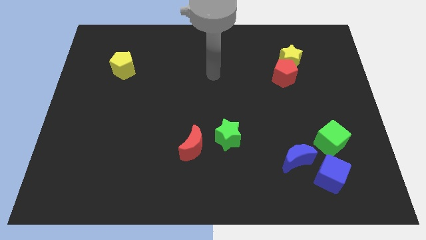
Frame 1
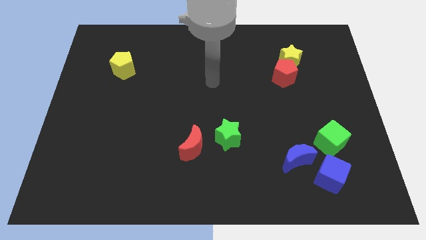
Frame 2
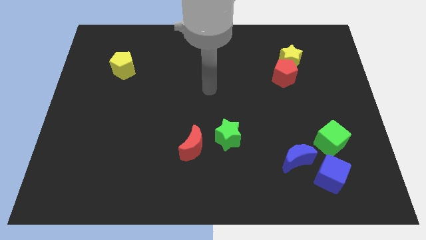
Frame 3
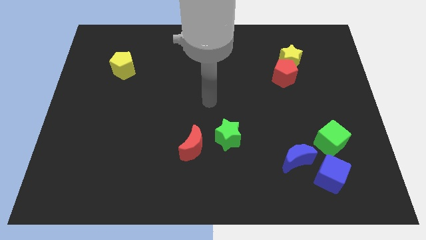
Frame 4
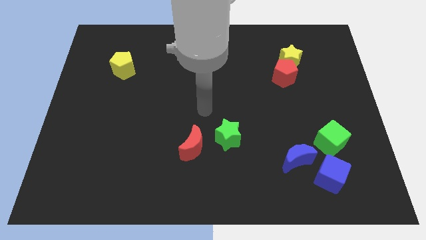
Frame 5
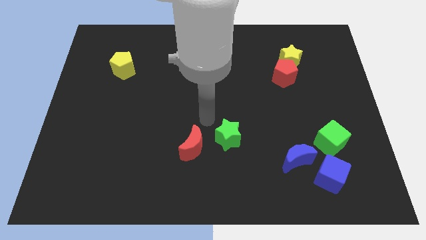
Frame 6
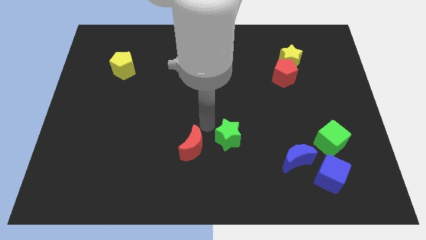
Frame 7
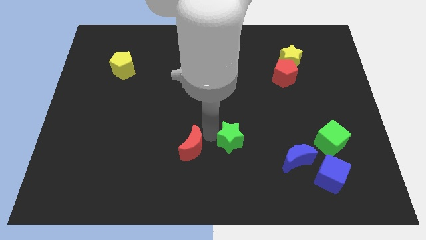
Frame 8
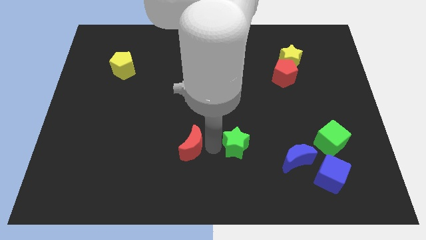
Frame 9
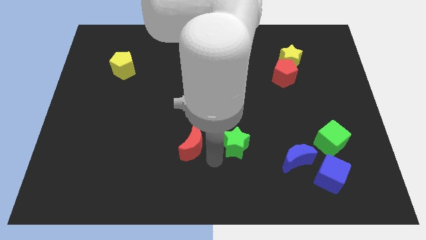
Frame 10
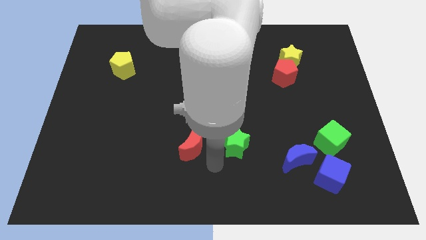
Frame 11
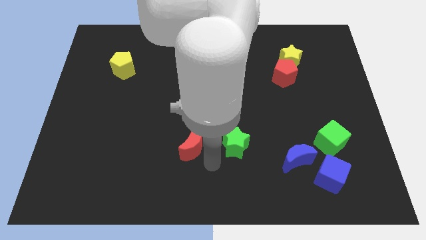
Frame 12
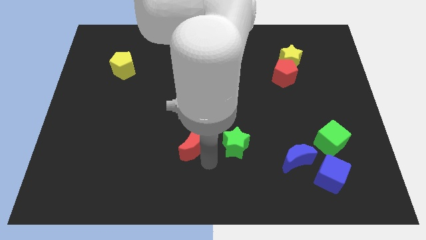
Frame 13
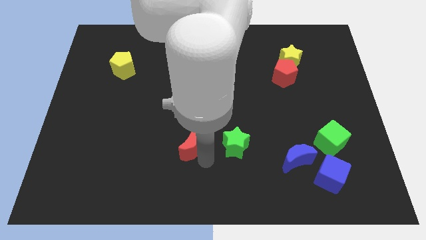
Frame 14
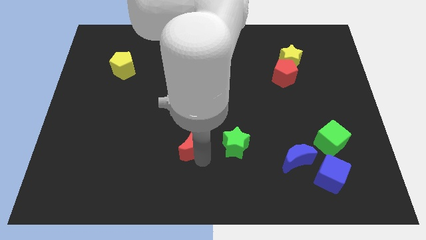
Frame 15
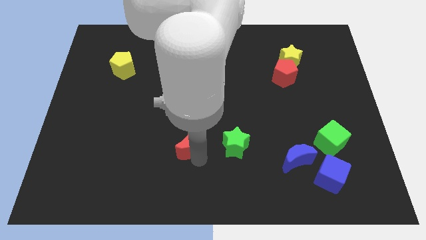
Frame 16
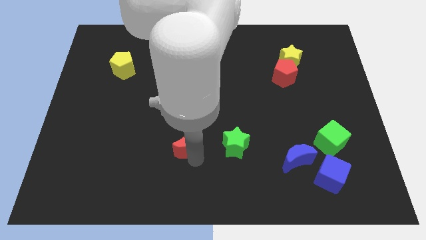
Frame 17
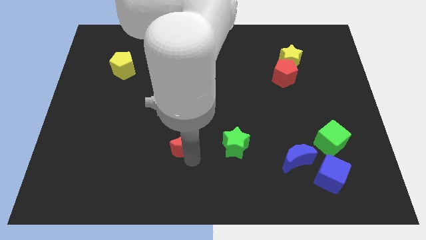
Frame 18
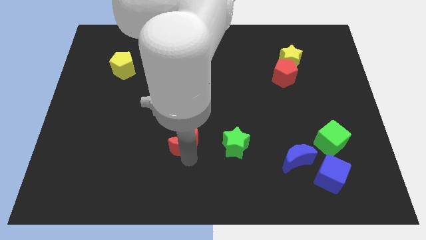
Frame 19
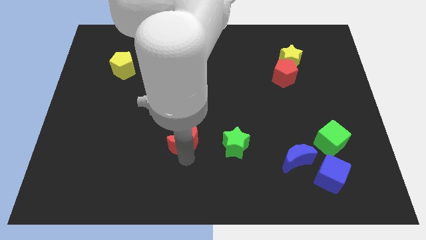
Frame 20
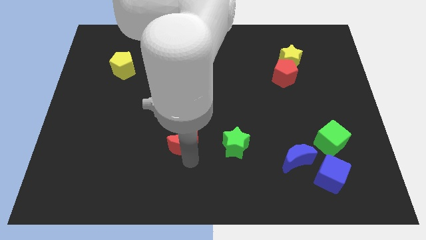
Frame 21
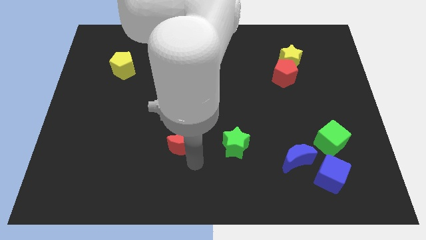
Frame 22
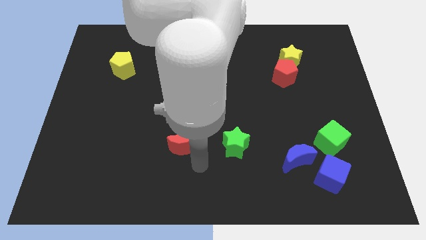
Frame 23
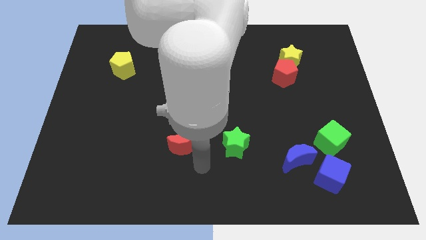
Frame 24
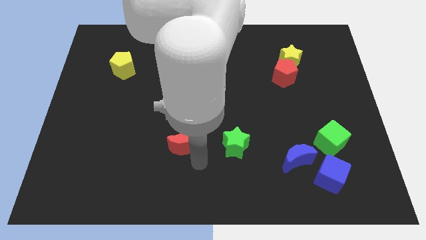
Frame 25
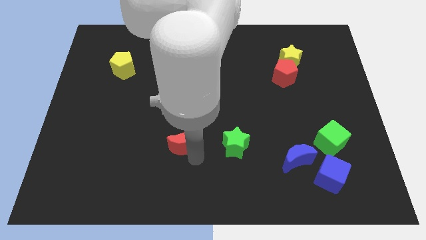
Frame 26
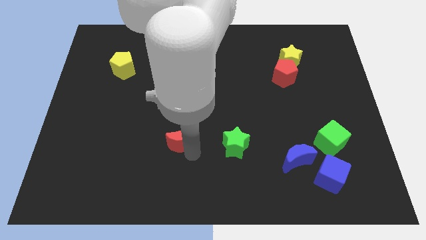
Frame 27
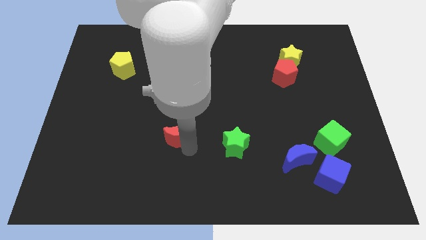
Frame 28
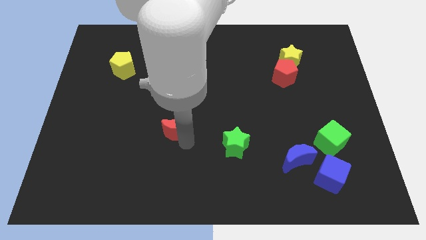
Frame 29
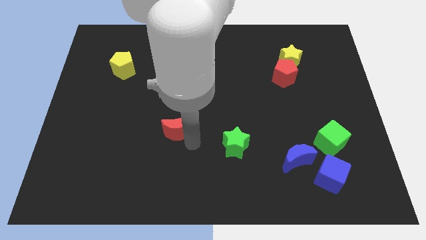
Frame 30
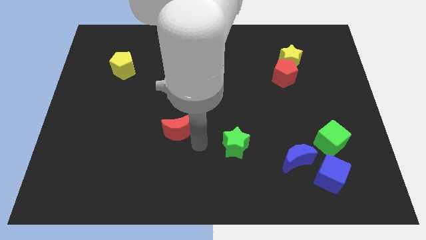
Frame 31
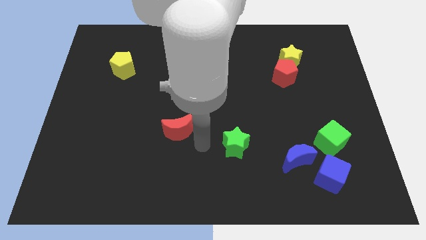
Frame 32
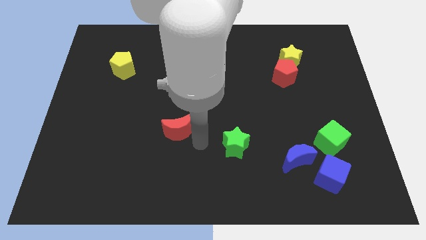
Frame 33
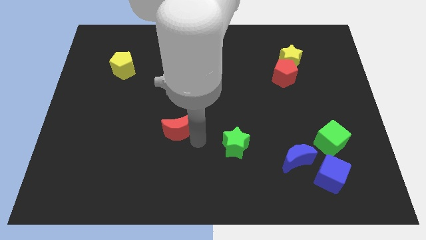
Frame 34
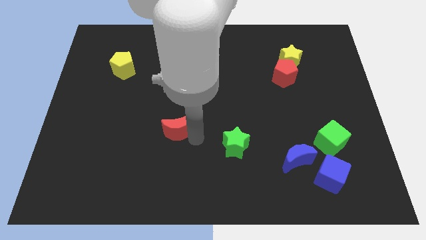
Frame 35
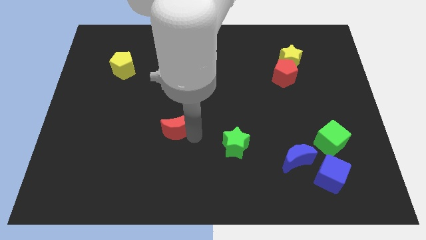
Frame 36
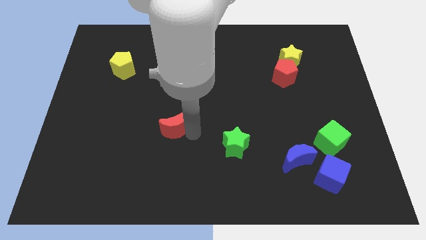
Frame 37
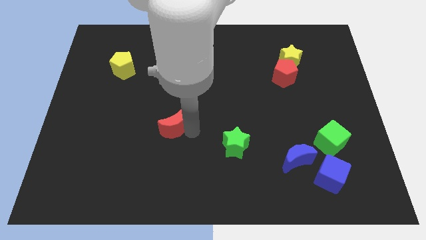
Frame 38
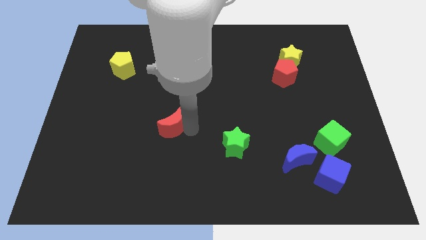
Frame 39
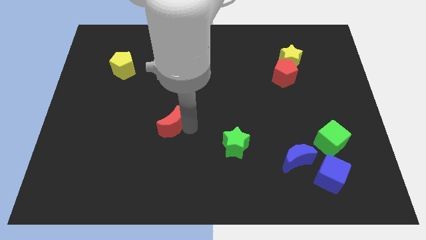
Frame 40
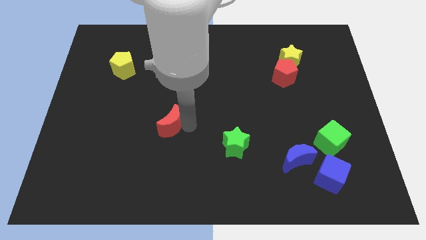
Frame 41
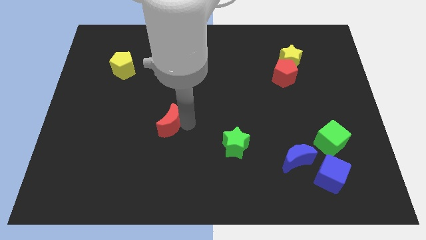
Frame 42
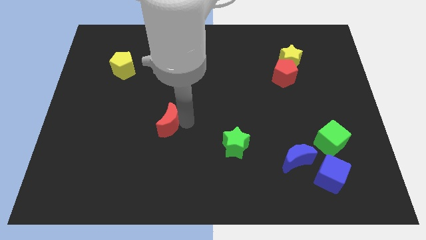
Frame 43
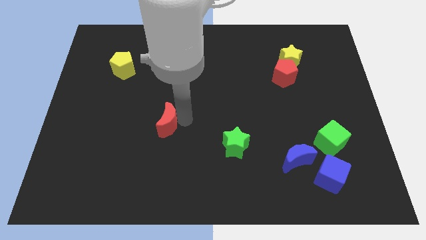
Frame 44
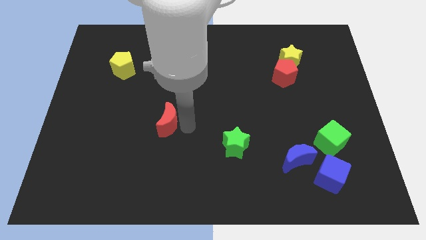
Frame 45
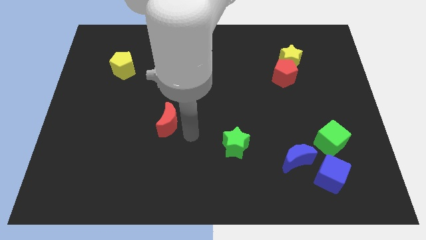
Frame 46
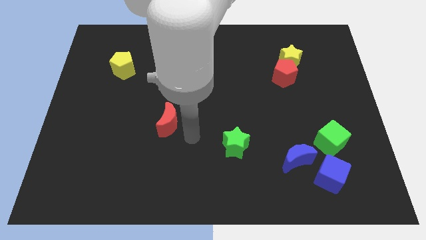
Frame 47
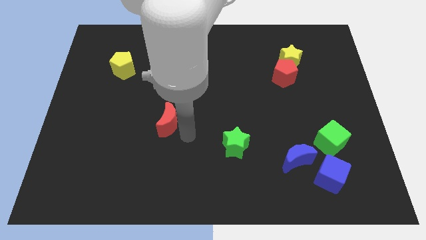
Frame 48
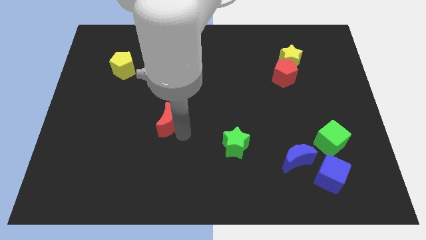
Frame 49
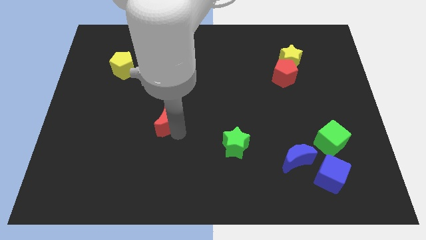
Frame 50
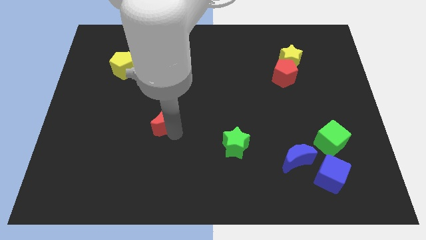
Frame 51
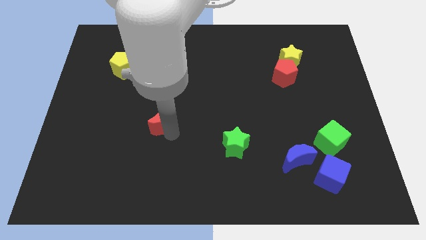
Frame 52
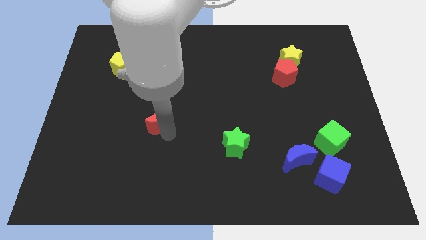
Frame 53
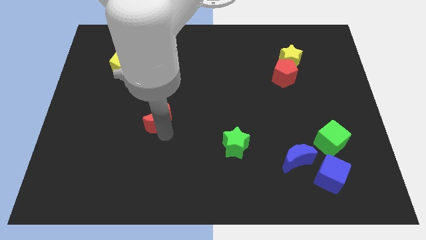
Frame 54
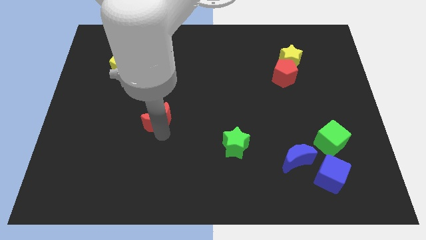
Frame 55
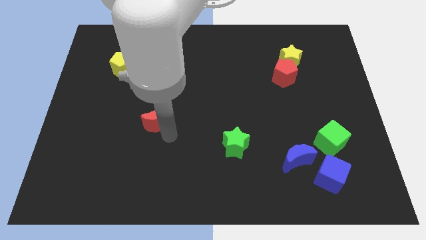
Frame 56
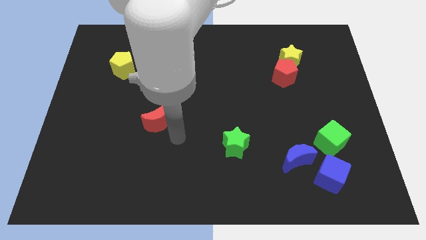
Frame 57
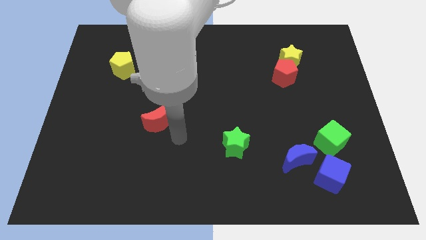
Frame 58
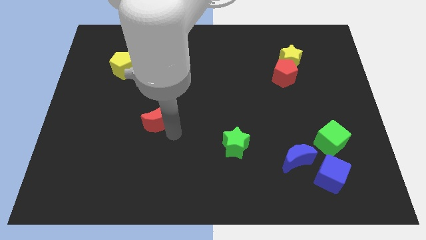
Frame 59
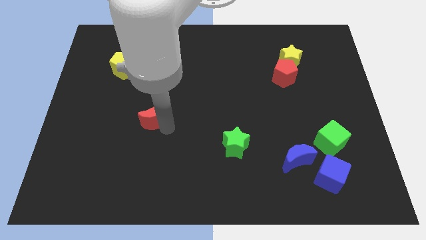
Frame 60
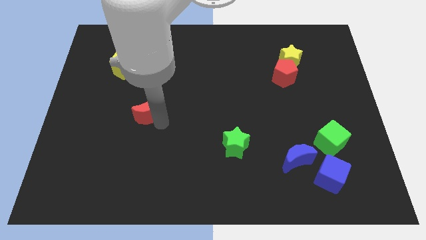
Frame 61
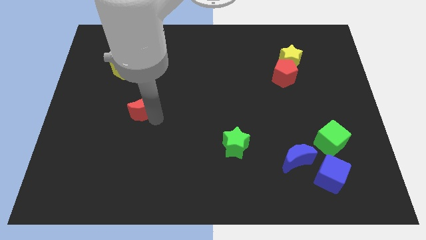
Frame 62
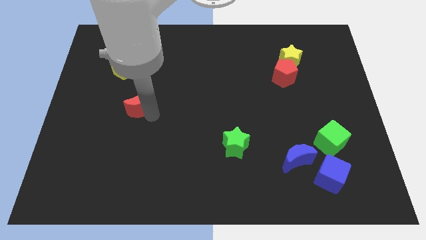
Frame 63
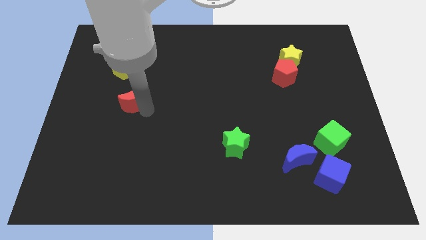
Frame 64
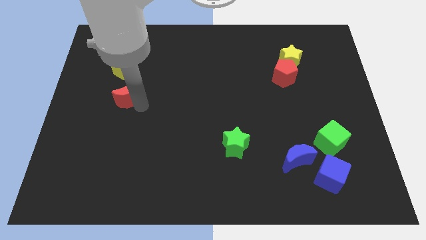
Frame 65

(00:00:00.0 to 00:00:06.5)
push the red moon upwards and then left

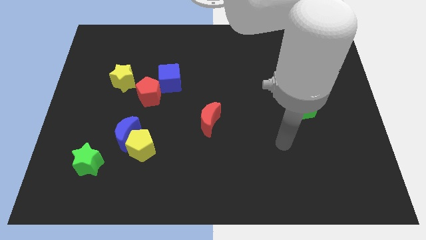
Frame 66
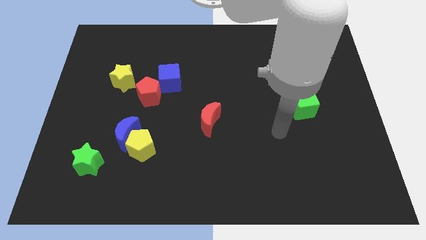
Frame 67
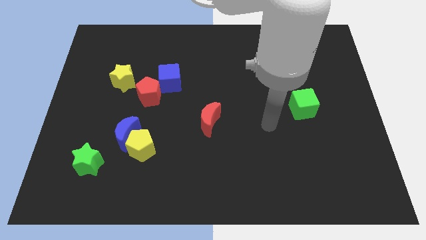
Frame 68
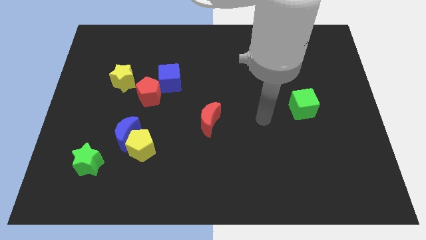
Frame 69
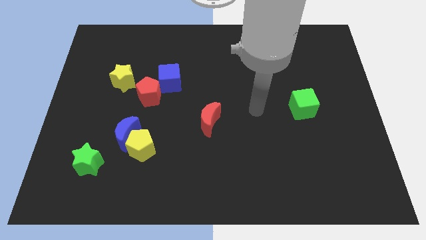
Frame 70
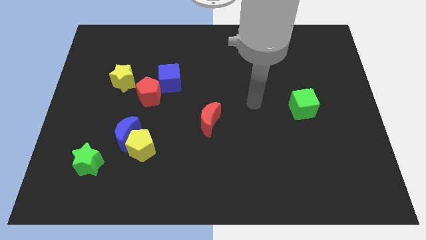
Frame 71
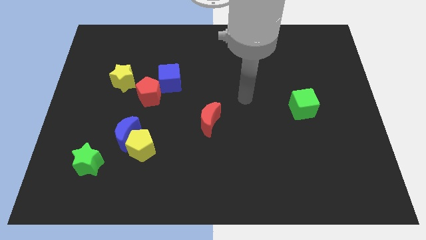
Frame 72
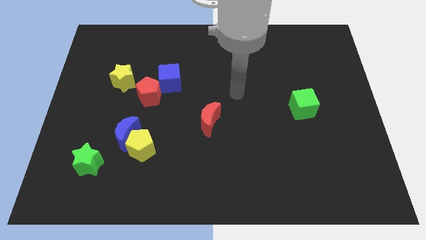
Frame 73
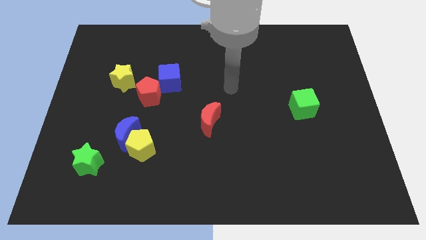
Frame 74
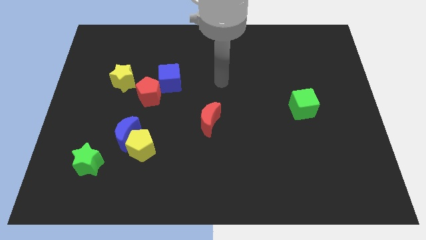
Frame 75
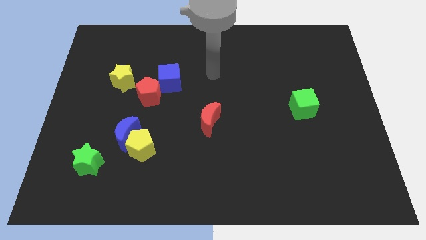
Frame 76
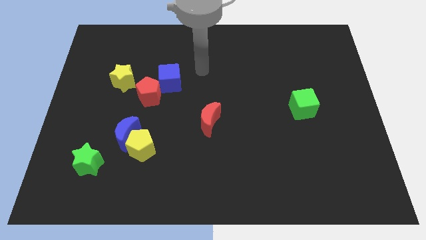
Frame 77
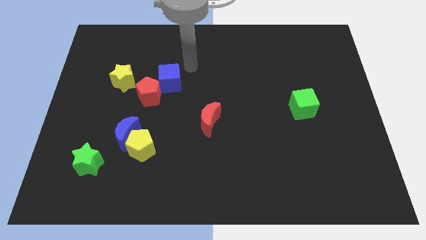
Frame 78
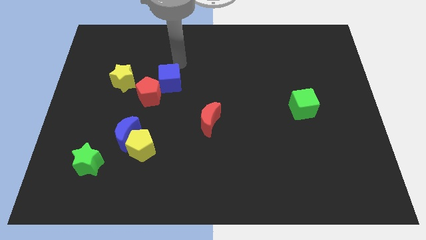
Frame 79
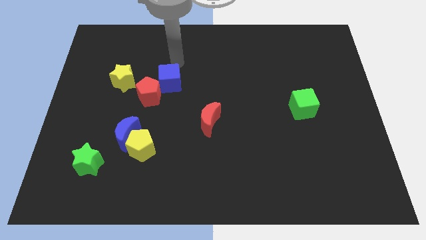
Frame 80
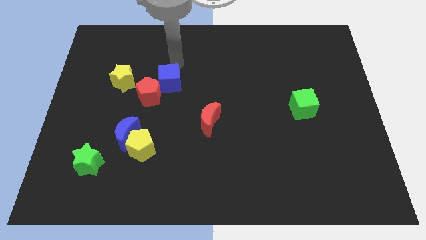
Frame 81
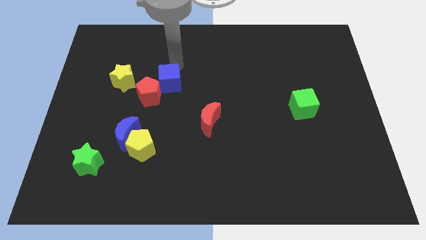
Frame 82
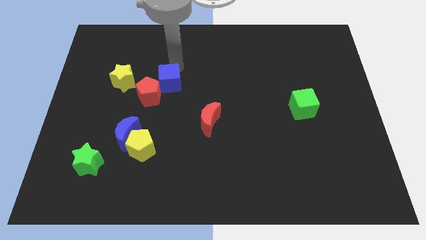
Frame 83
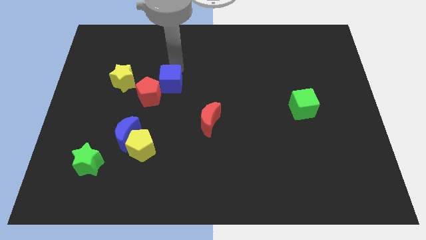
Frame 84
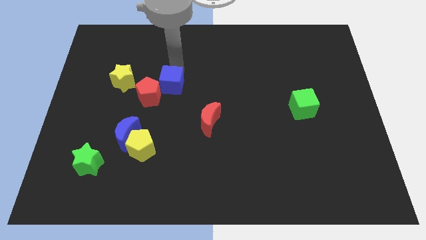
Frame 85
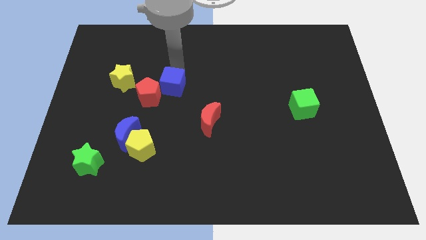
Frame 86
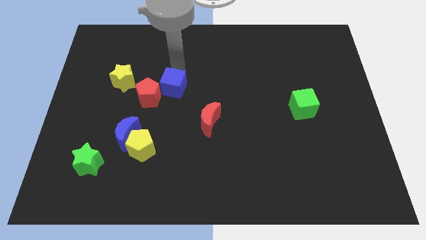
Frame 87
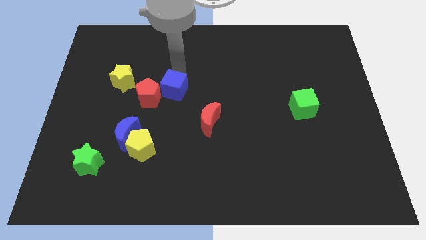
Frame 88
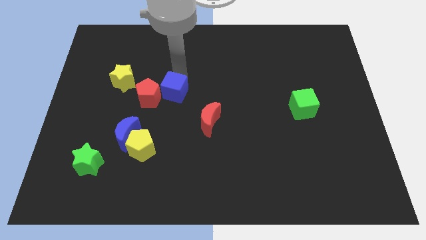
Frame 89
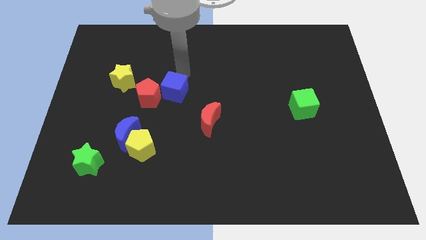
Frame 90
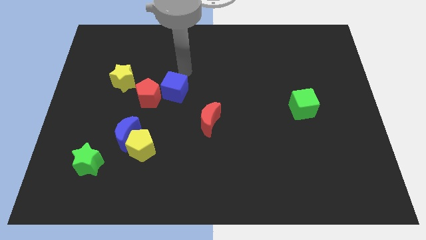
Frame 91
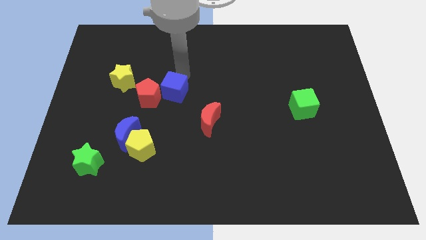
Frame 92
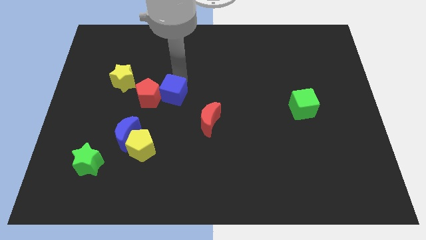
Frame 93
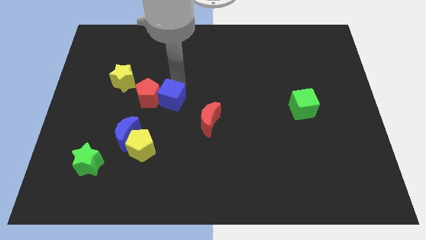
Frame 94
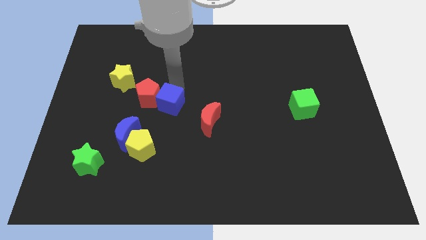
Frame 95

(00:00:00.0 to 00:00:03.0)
push the blue cube somewhat down
